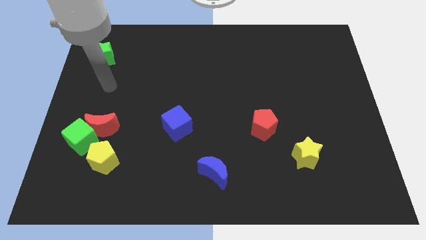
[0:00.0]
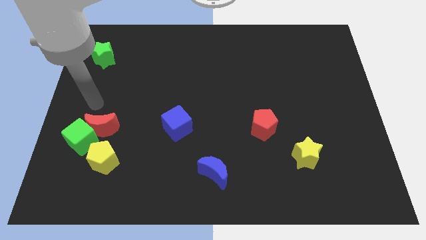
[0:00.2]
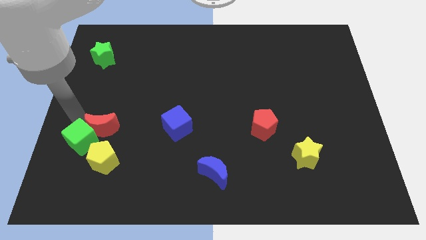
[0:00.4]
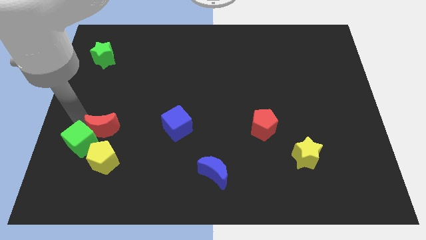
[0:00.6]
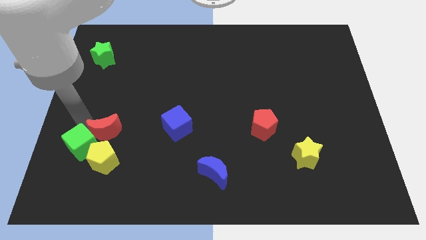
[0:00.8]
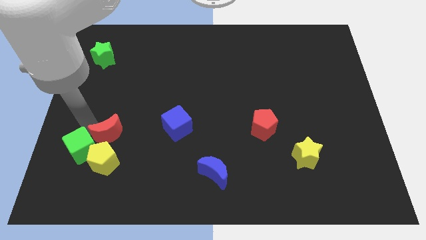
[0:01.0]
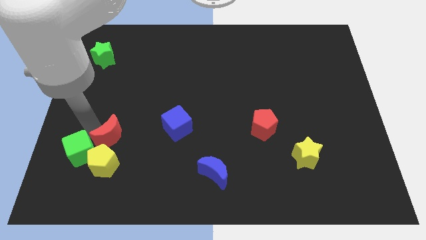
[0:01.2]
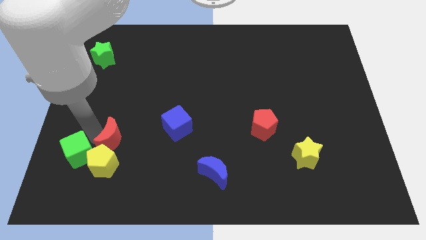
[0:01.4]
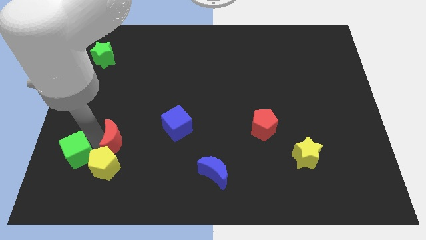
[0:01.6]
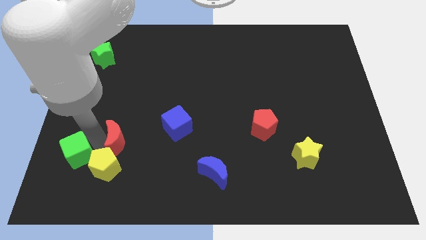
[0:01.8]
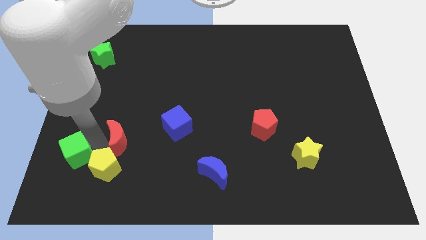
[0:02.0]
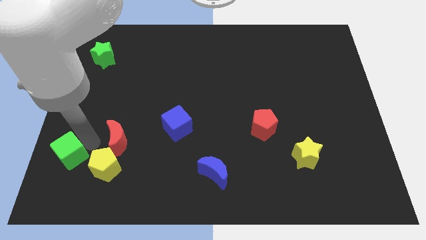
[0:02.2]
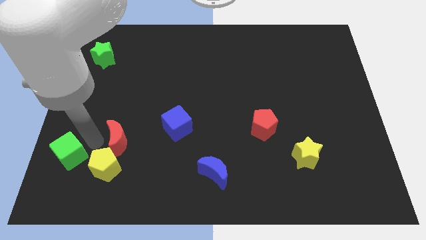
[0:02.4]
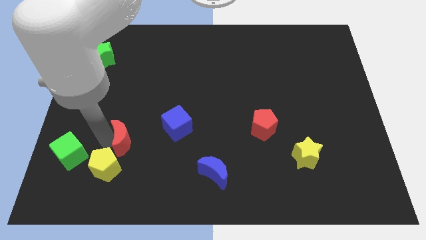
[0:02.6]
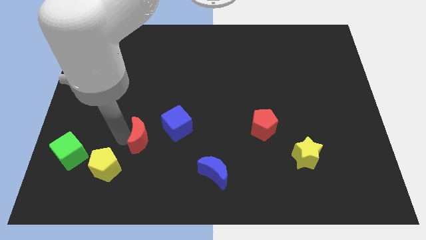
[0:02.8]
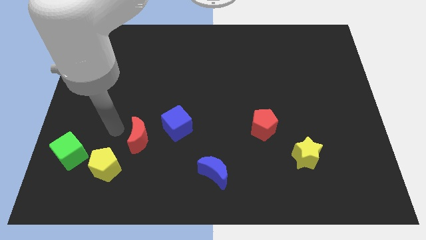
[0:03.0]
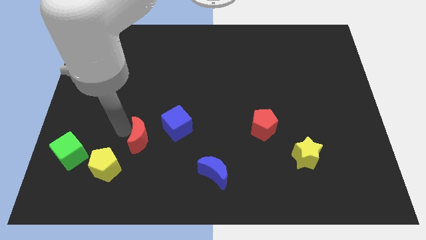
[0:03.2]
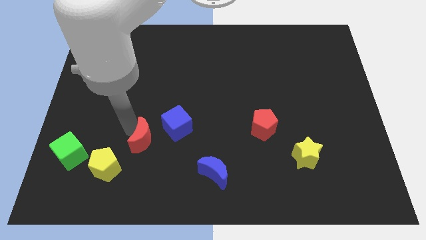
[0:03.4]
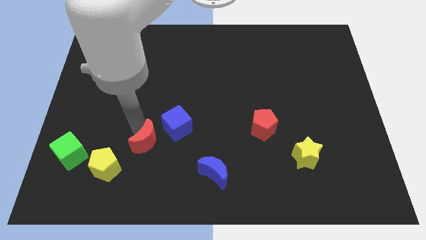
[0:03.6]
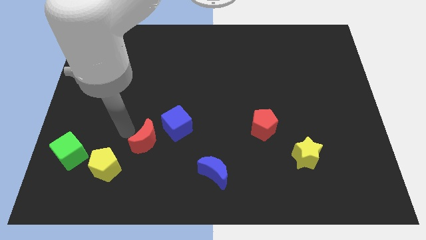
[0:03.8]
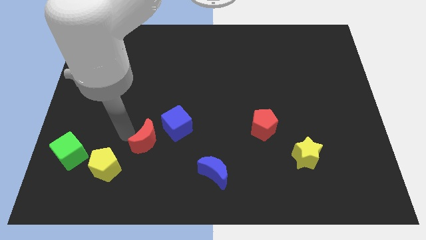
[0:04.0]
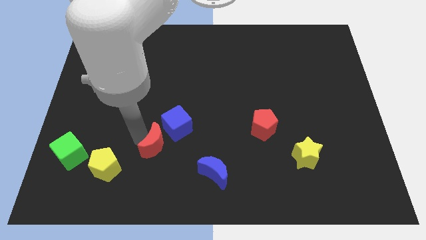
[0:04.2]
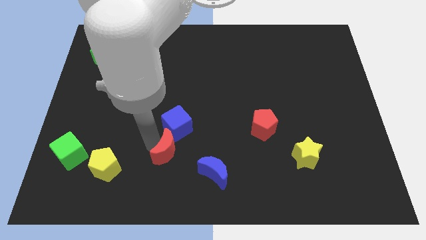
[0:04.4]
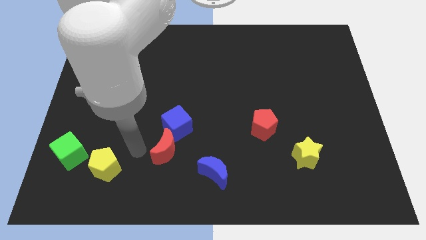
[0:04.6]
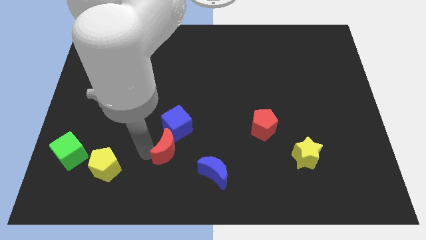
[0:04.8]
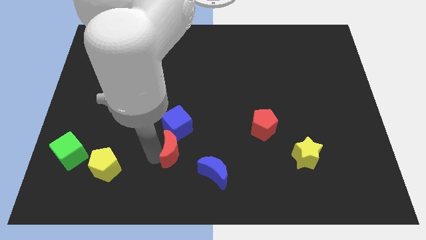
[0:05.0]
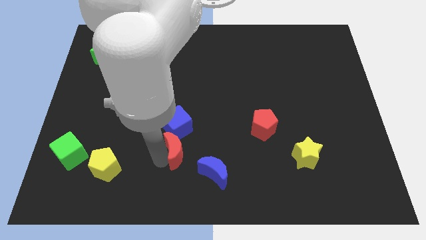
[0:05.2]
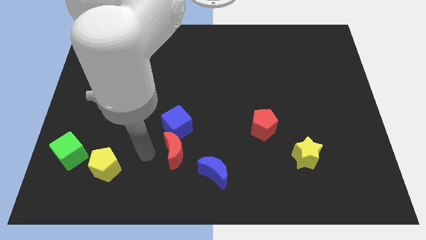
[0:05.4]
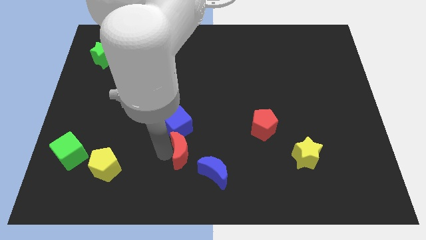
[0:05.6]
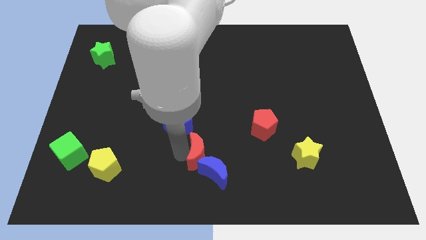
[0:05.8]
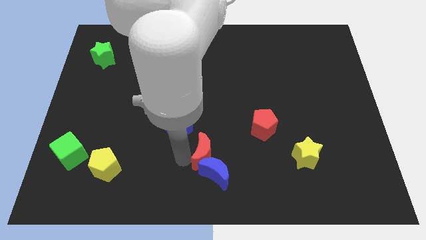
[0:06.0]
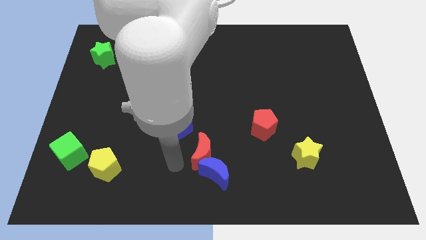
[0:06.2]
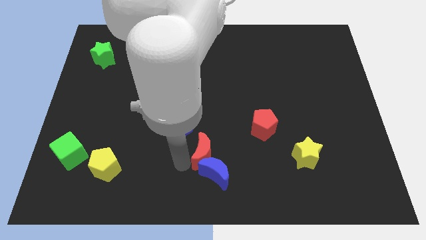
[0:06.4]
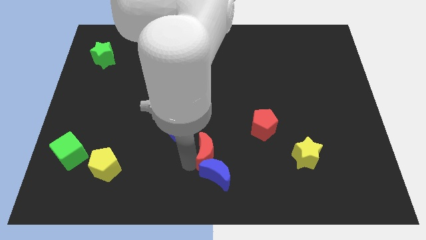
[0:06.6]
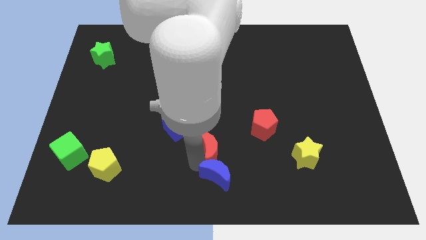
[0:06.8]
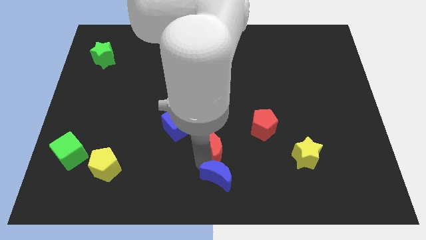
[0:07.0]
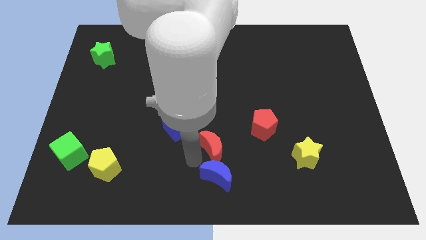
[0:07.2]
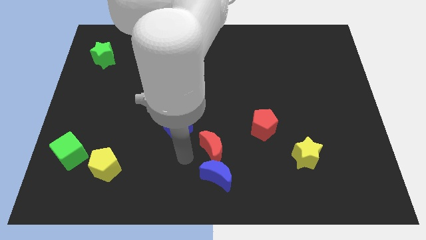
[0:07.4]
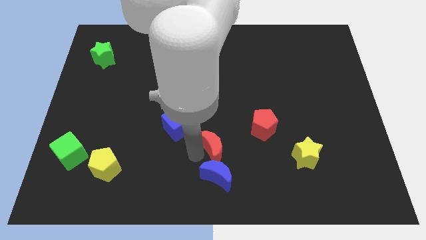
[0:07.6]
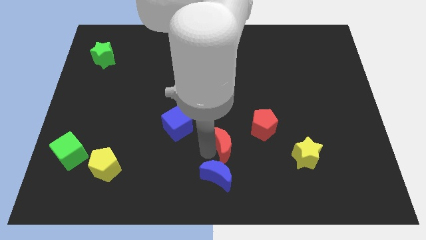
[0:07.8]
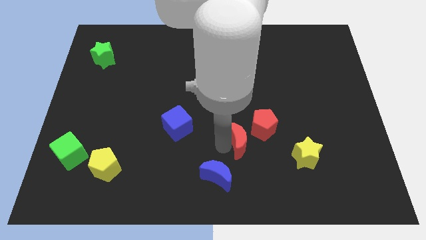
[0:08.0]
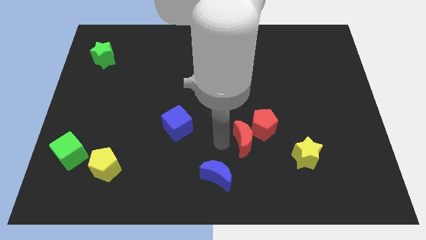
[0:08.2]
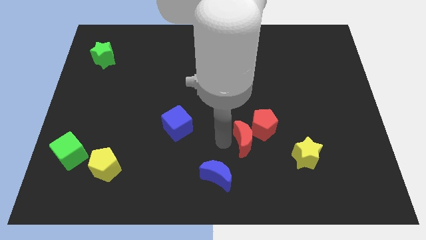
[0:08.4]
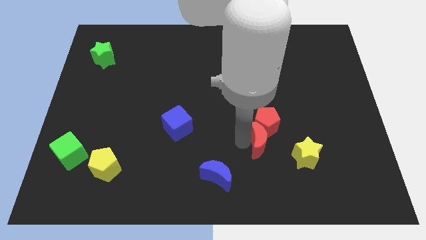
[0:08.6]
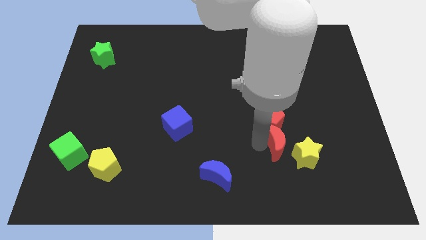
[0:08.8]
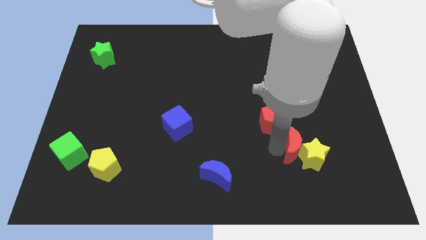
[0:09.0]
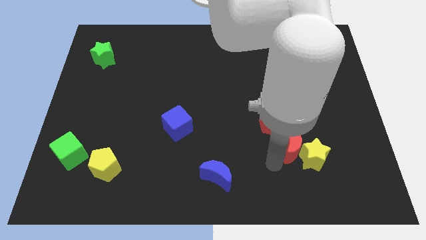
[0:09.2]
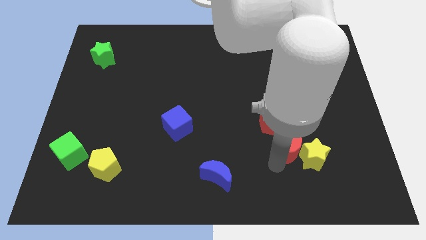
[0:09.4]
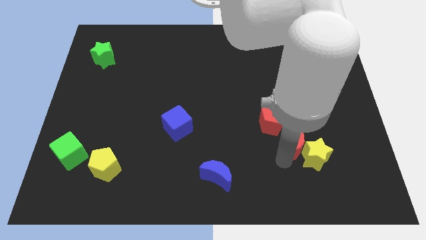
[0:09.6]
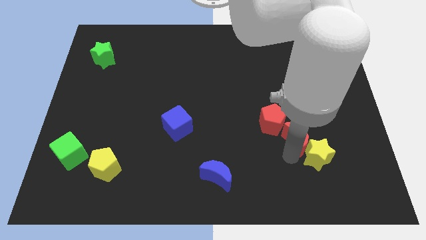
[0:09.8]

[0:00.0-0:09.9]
move the red moon to the right of the red pentagon

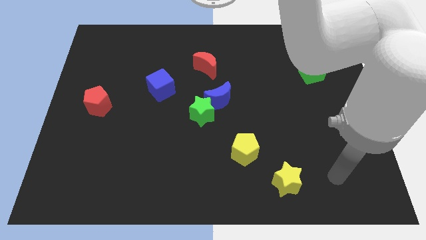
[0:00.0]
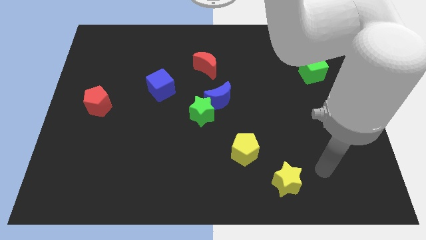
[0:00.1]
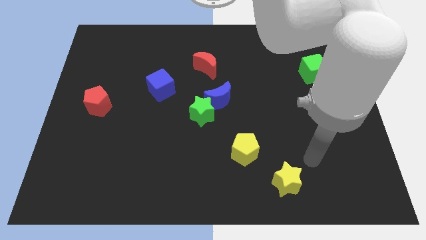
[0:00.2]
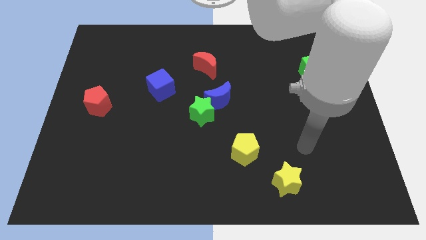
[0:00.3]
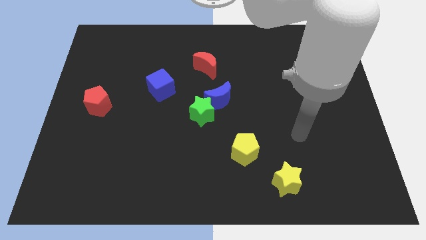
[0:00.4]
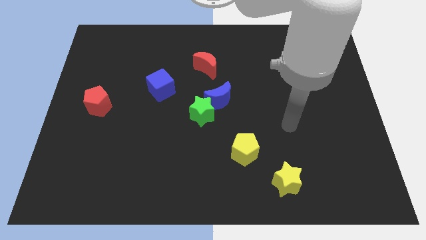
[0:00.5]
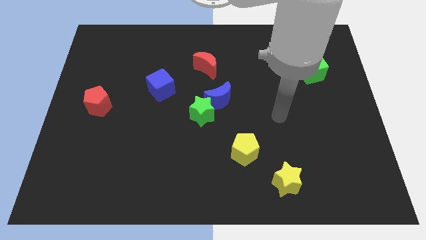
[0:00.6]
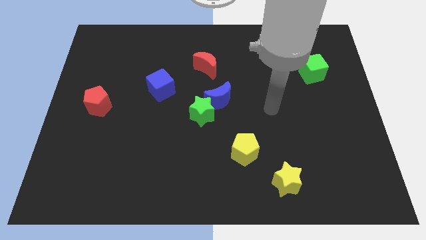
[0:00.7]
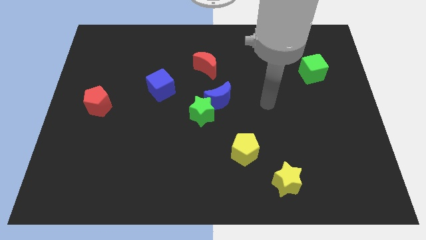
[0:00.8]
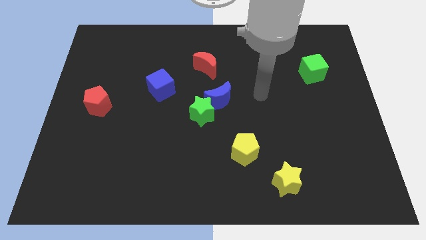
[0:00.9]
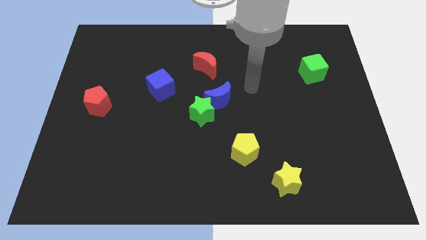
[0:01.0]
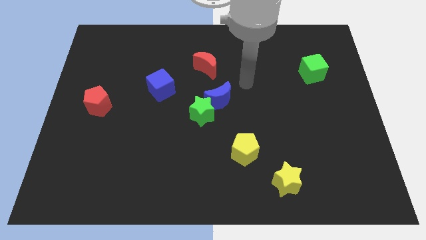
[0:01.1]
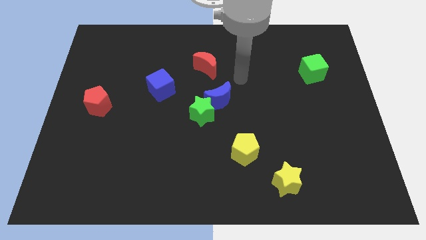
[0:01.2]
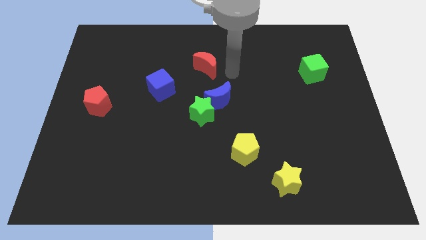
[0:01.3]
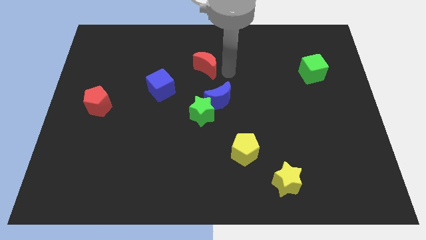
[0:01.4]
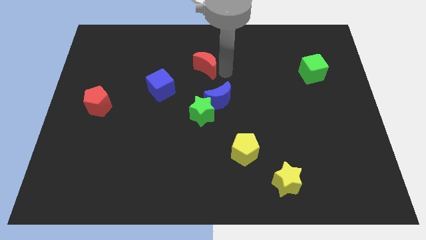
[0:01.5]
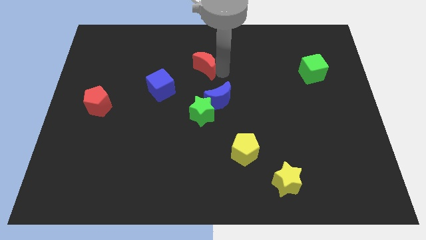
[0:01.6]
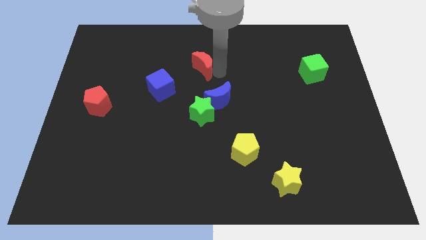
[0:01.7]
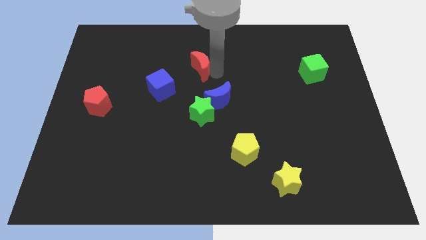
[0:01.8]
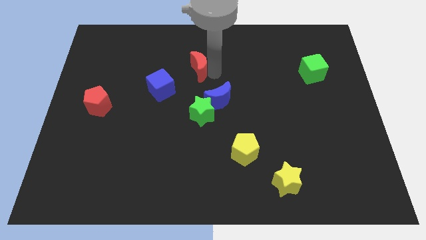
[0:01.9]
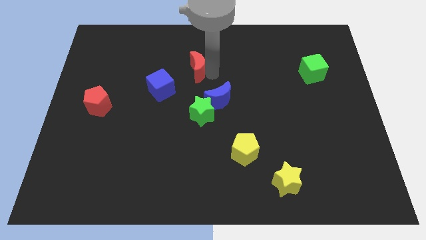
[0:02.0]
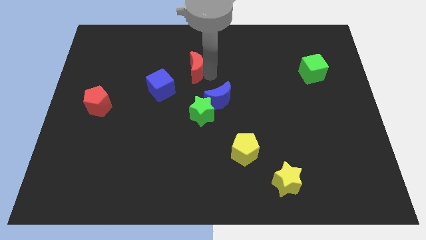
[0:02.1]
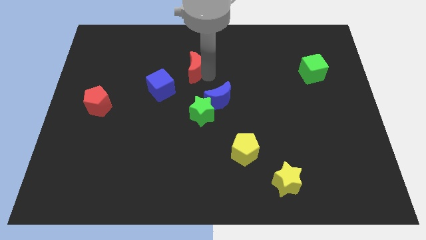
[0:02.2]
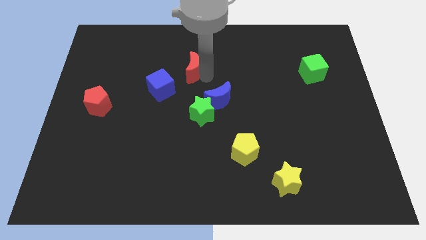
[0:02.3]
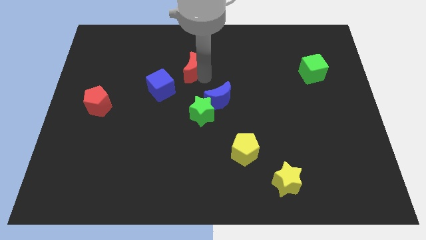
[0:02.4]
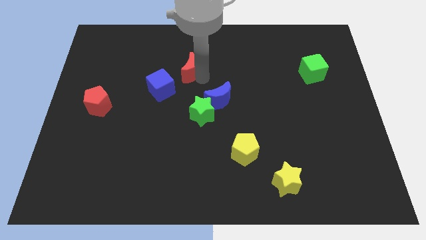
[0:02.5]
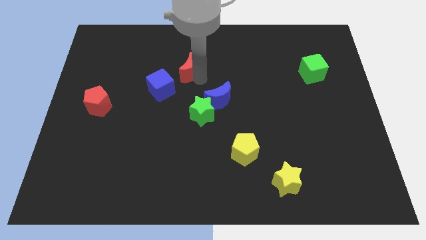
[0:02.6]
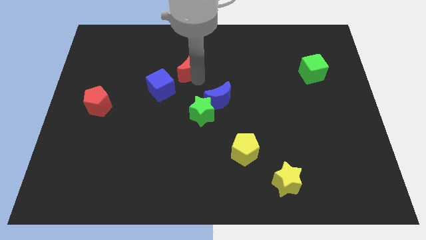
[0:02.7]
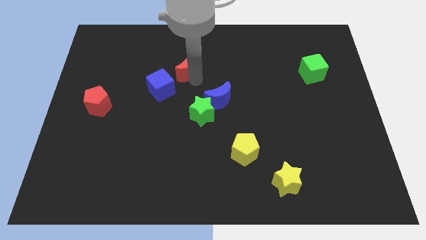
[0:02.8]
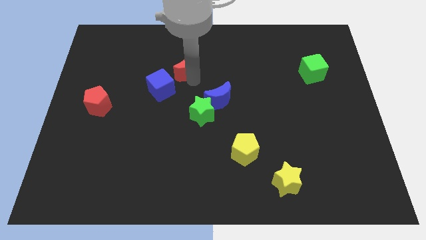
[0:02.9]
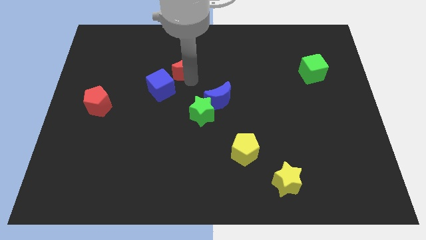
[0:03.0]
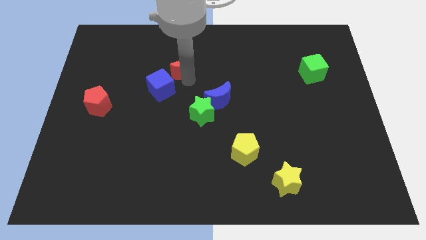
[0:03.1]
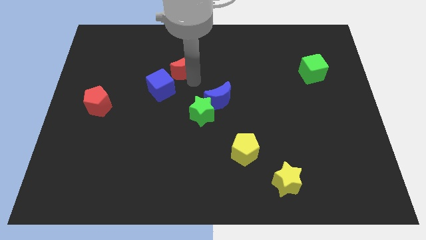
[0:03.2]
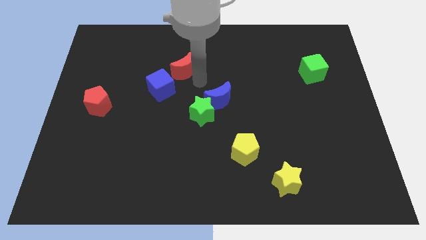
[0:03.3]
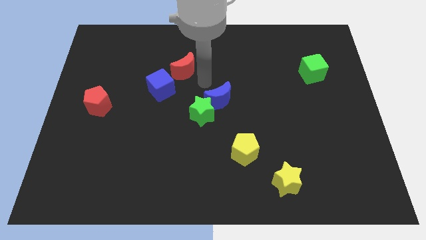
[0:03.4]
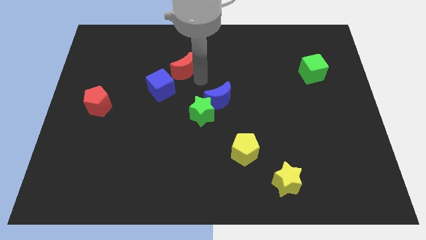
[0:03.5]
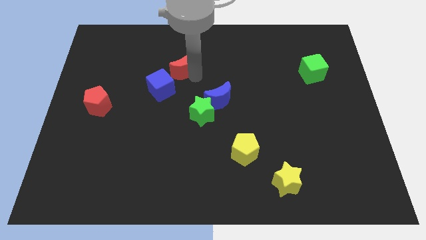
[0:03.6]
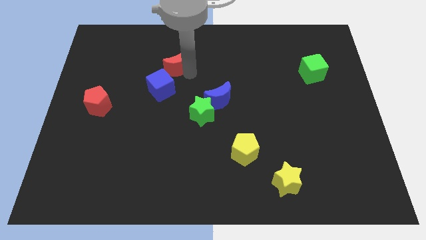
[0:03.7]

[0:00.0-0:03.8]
slide the red moon to the top of the blue cube
